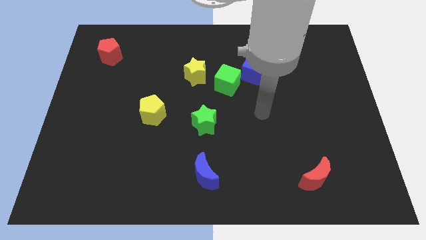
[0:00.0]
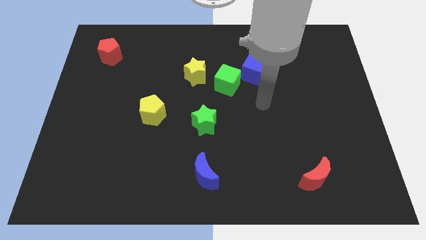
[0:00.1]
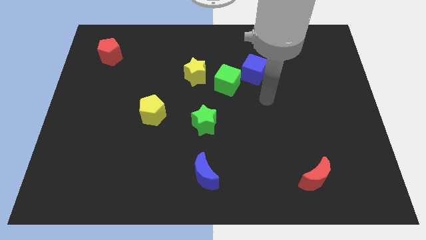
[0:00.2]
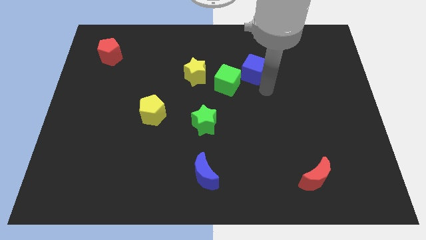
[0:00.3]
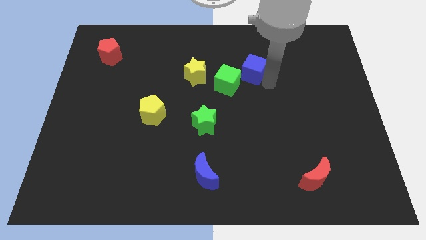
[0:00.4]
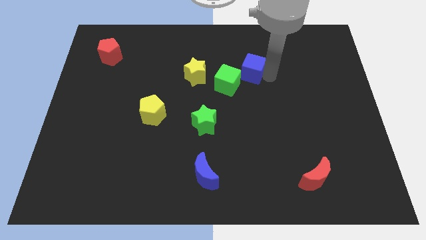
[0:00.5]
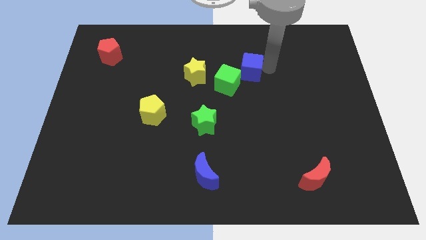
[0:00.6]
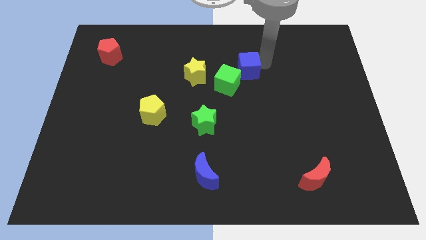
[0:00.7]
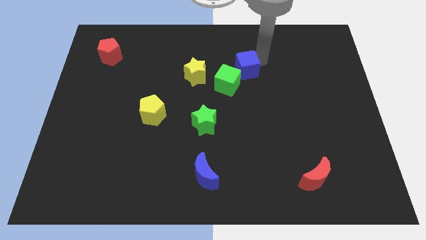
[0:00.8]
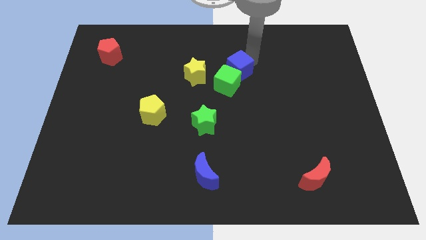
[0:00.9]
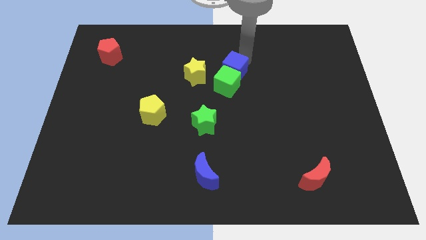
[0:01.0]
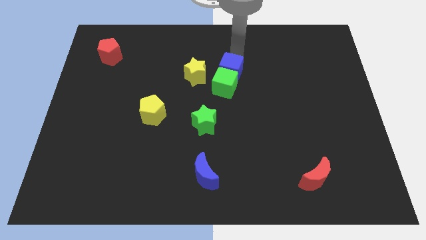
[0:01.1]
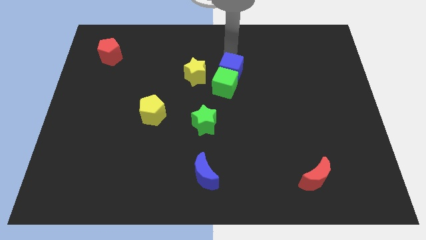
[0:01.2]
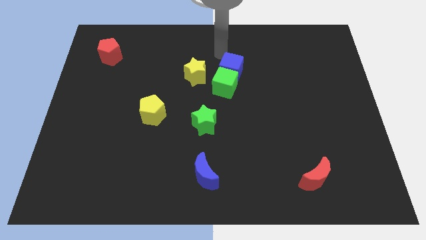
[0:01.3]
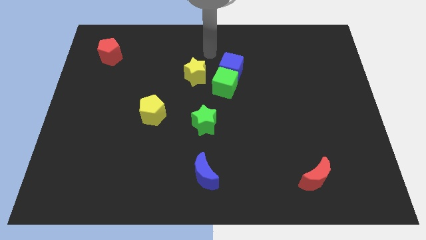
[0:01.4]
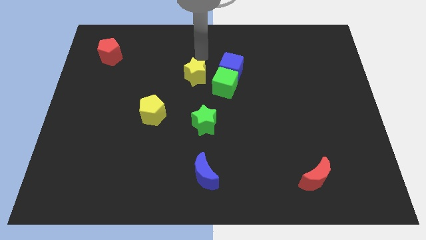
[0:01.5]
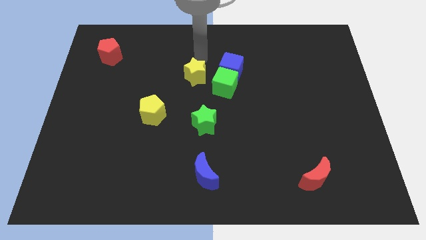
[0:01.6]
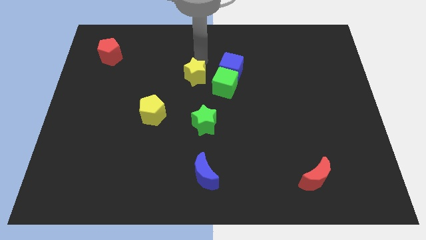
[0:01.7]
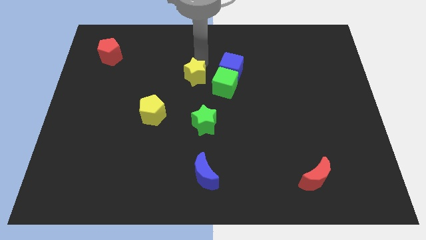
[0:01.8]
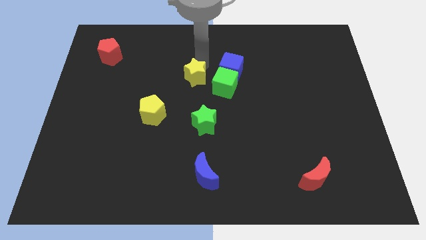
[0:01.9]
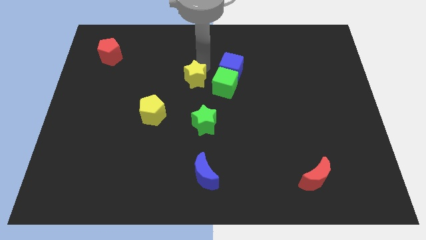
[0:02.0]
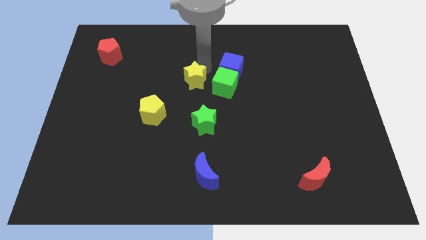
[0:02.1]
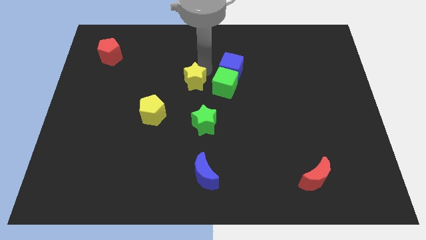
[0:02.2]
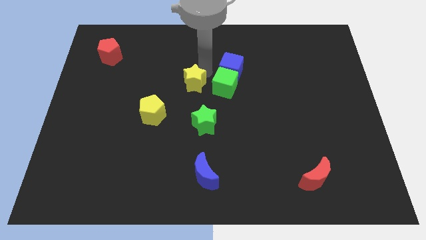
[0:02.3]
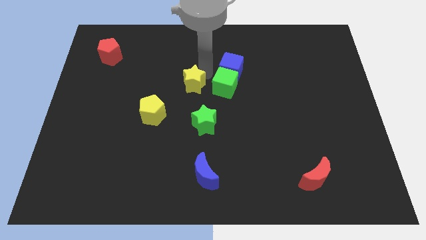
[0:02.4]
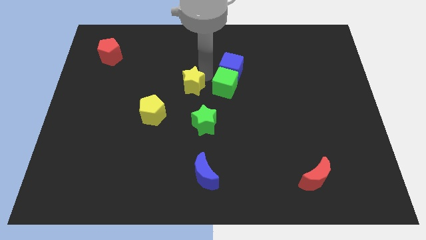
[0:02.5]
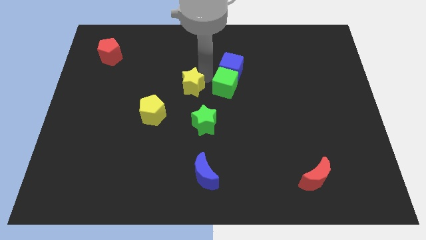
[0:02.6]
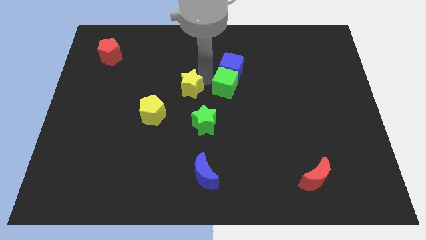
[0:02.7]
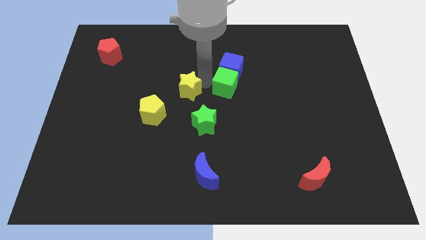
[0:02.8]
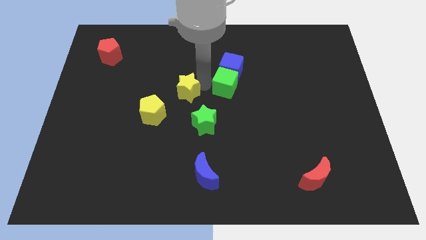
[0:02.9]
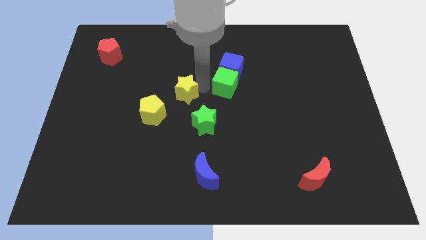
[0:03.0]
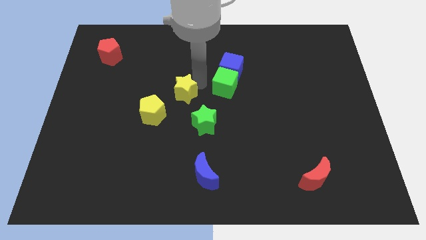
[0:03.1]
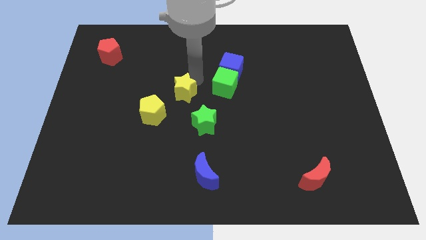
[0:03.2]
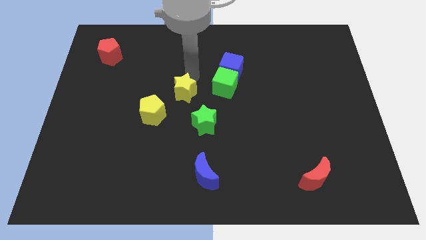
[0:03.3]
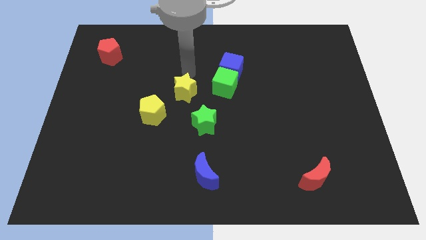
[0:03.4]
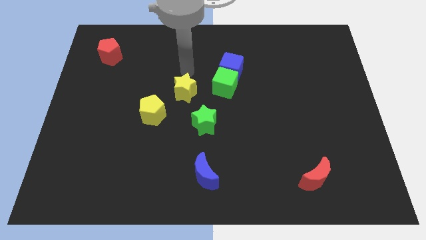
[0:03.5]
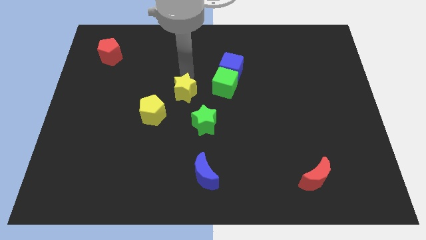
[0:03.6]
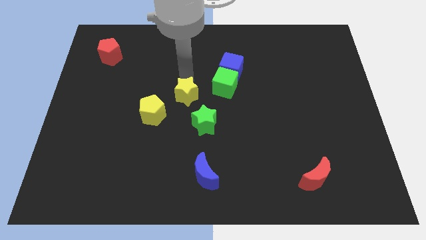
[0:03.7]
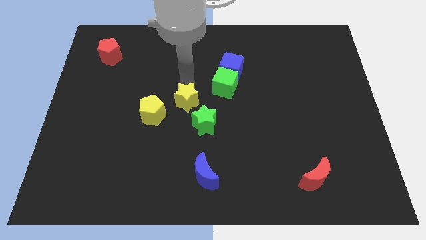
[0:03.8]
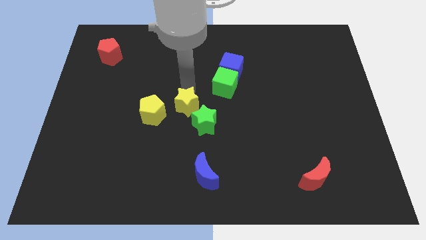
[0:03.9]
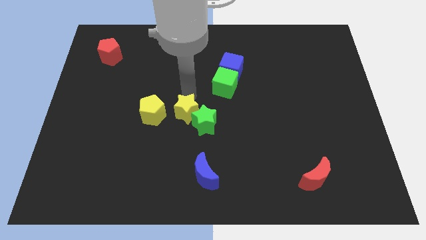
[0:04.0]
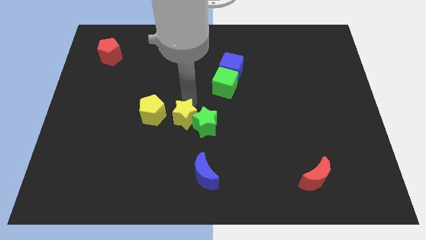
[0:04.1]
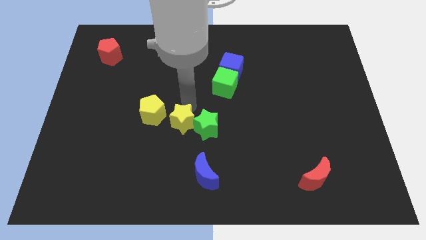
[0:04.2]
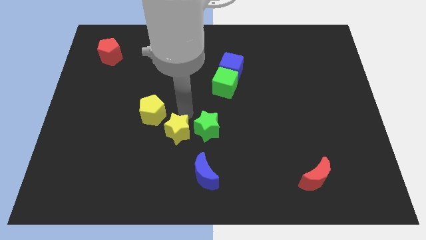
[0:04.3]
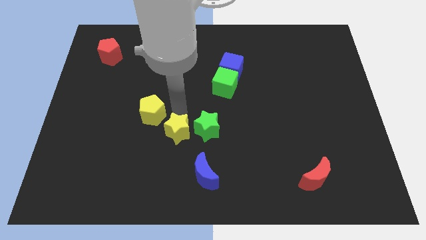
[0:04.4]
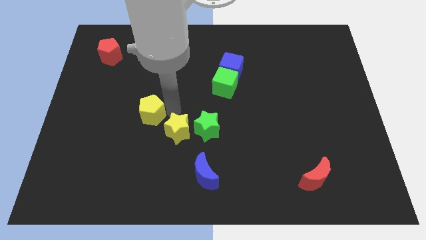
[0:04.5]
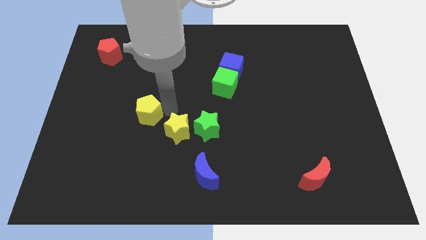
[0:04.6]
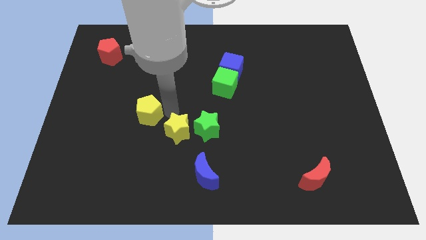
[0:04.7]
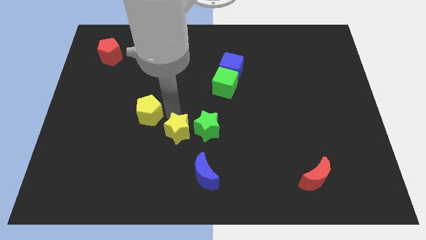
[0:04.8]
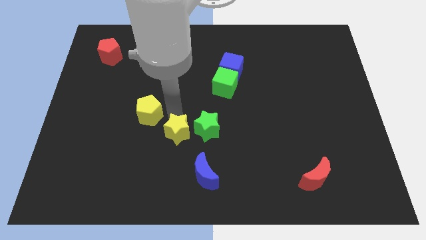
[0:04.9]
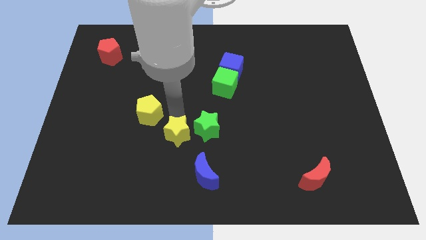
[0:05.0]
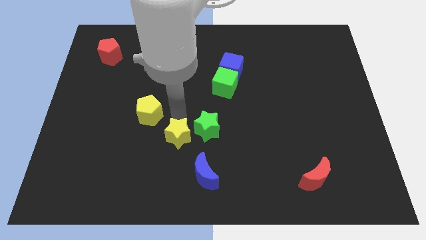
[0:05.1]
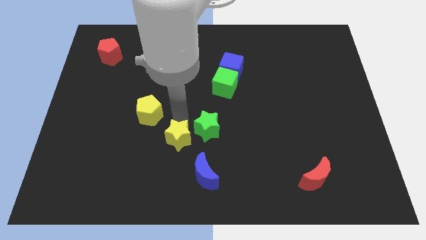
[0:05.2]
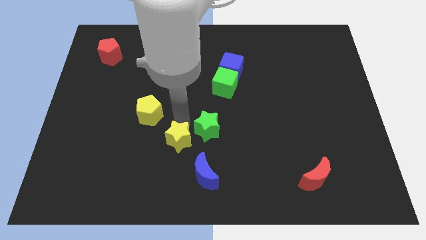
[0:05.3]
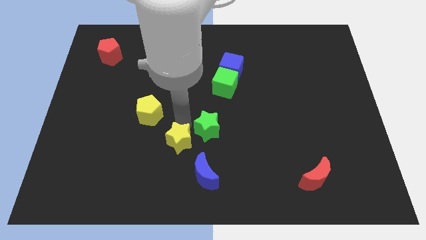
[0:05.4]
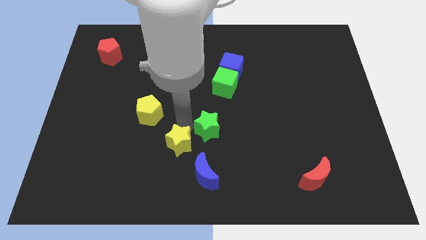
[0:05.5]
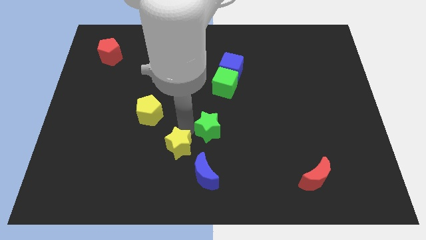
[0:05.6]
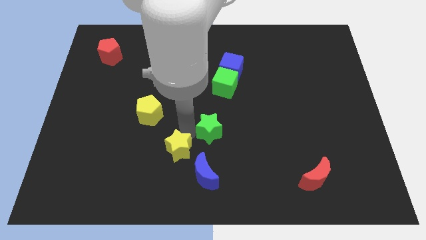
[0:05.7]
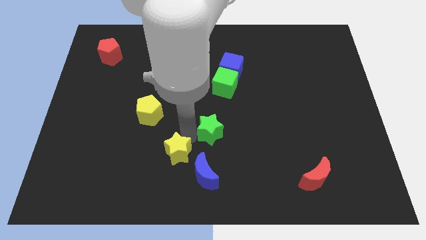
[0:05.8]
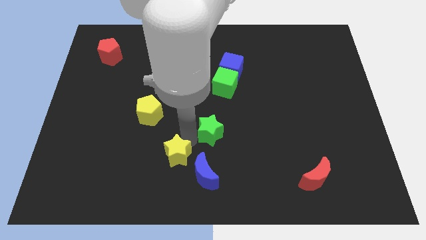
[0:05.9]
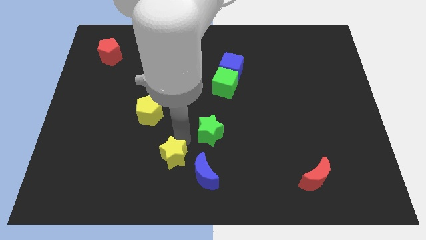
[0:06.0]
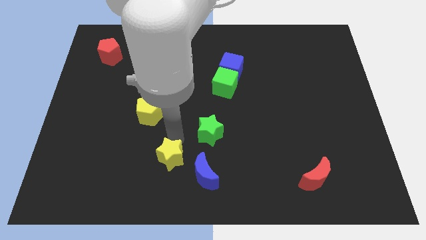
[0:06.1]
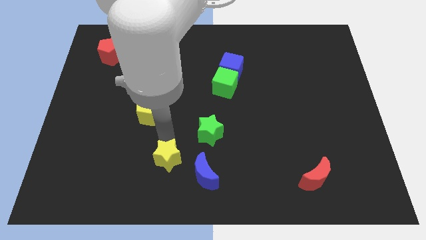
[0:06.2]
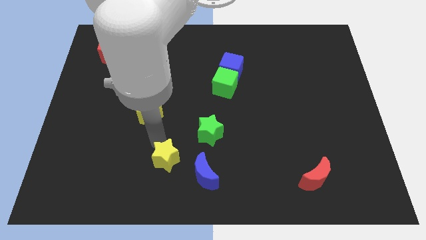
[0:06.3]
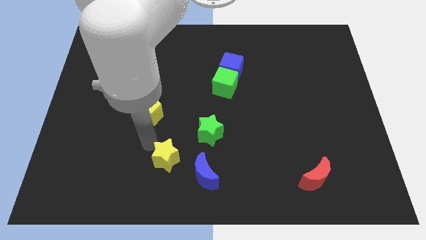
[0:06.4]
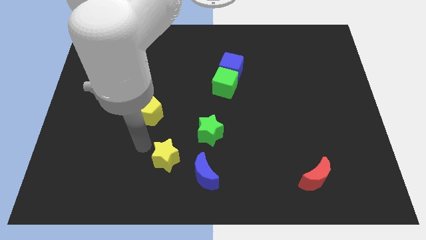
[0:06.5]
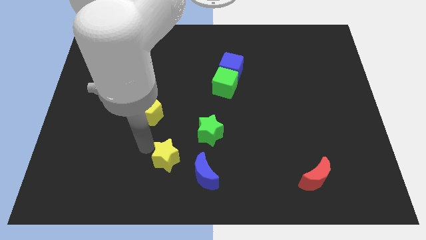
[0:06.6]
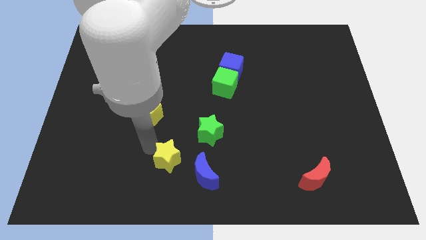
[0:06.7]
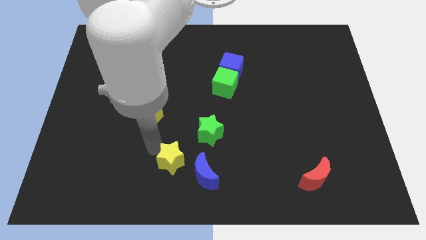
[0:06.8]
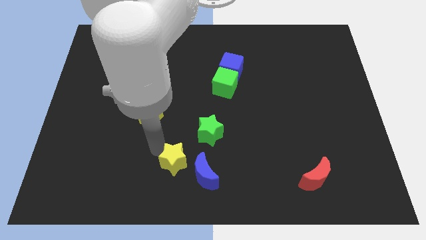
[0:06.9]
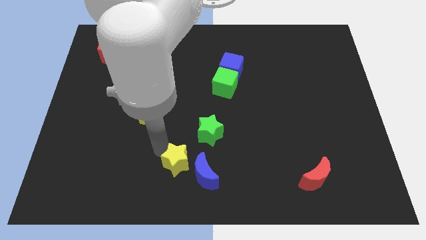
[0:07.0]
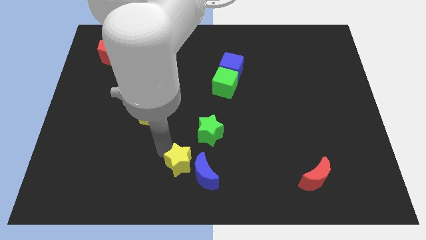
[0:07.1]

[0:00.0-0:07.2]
push the yellow star close to the blue moon

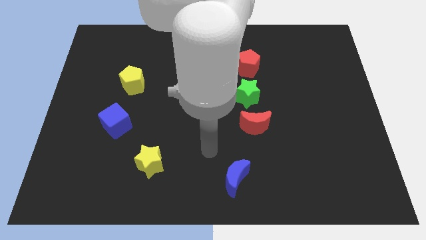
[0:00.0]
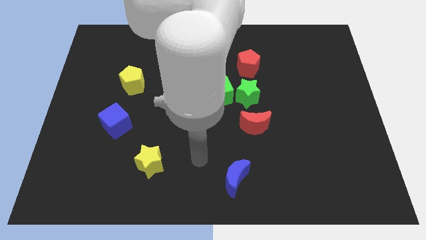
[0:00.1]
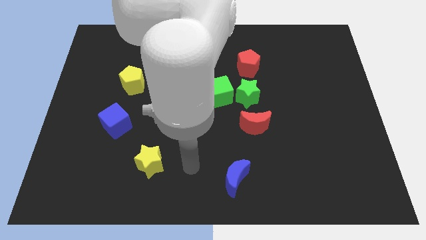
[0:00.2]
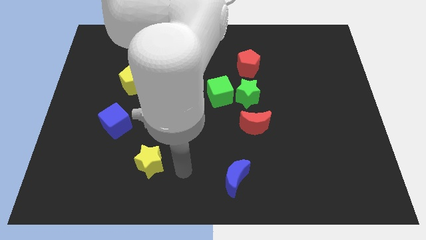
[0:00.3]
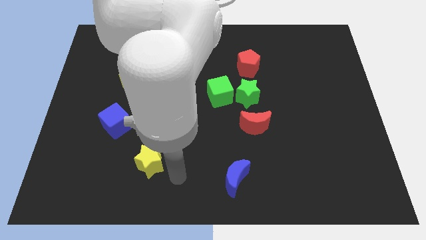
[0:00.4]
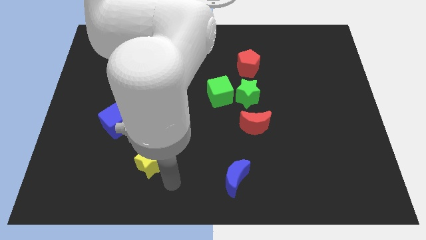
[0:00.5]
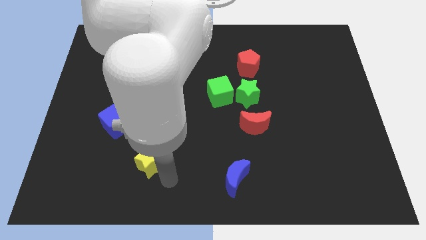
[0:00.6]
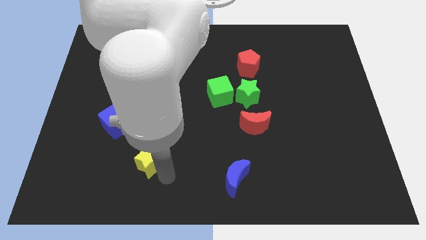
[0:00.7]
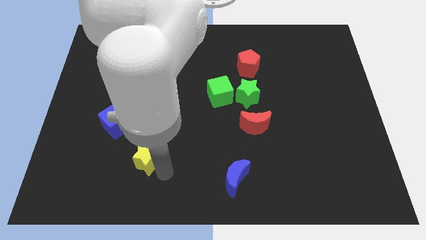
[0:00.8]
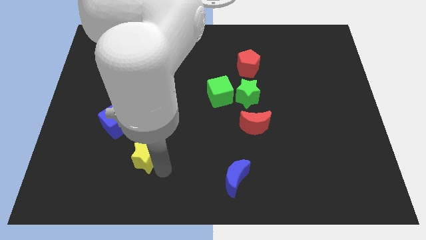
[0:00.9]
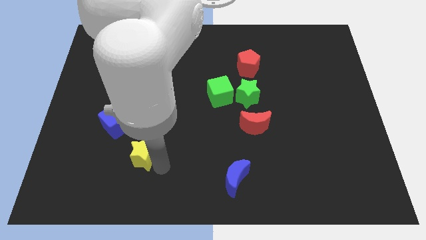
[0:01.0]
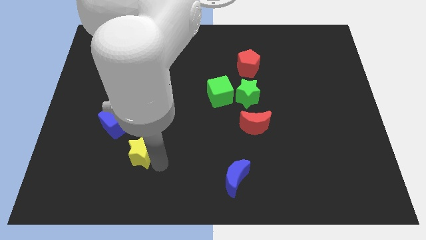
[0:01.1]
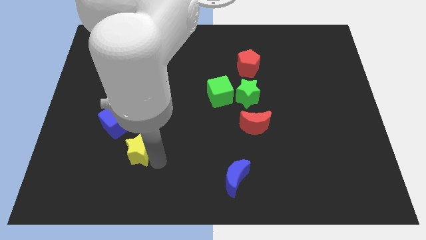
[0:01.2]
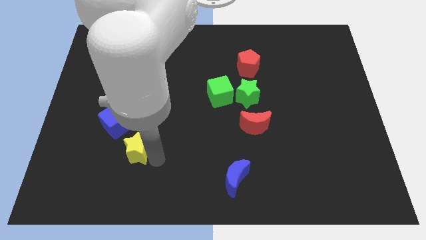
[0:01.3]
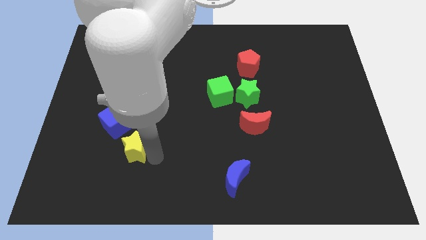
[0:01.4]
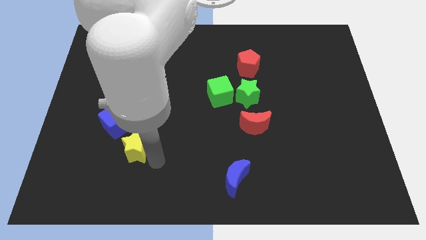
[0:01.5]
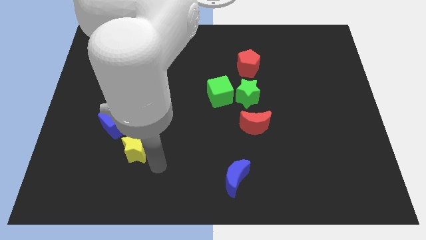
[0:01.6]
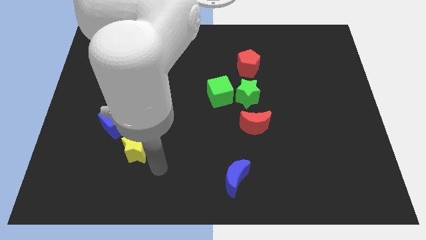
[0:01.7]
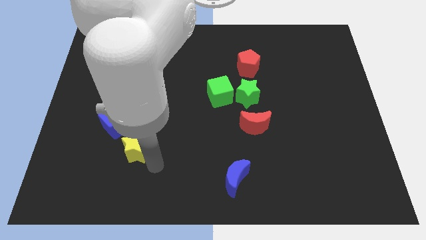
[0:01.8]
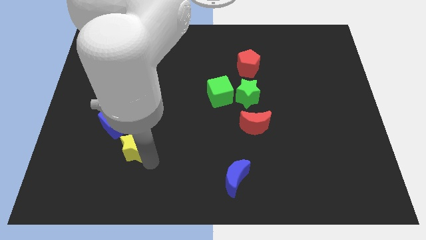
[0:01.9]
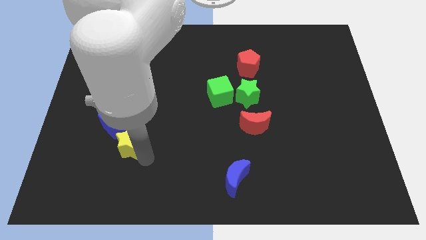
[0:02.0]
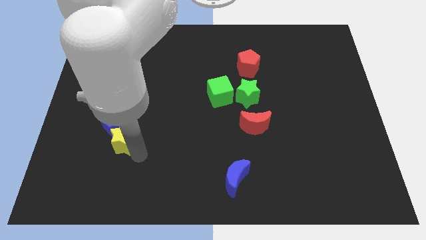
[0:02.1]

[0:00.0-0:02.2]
slide the yellow star to the blue cube
